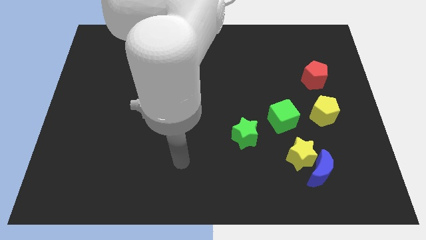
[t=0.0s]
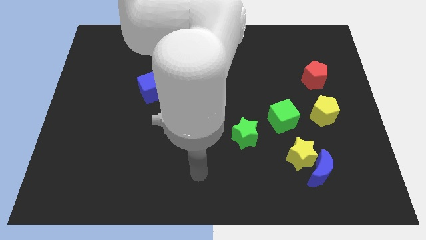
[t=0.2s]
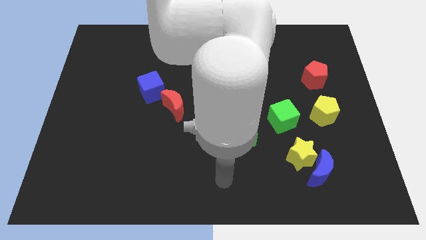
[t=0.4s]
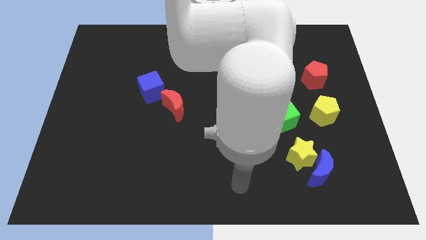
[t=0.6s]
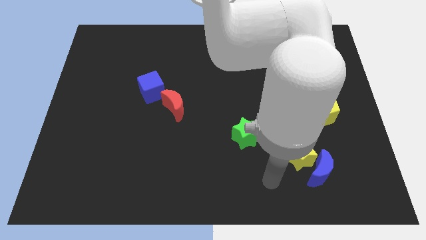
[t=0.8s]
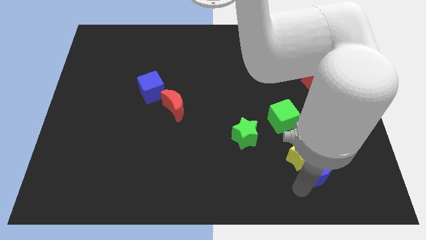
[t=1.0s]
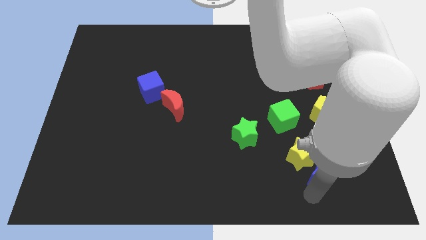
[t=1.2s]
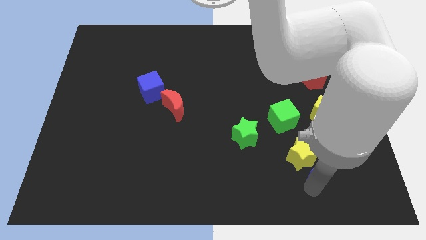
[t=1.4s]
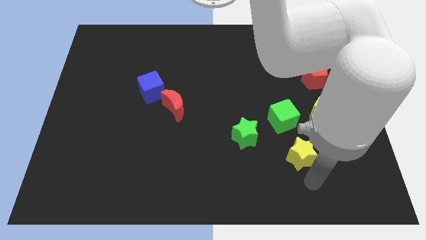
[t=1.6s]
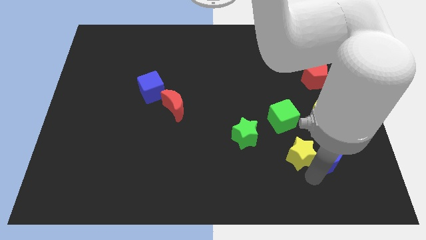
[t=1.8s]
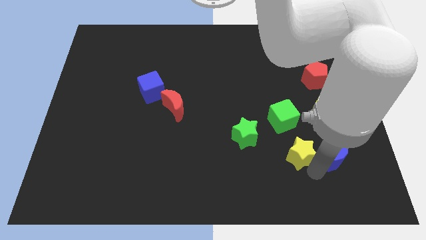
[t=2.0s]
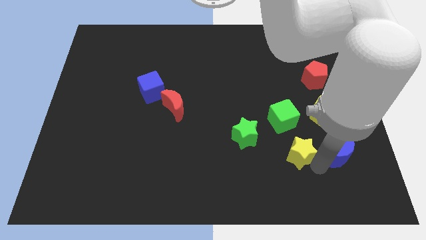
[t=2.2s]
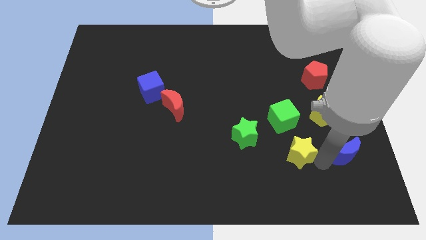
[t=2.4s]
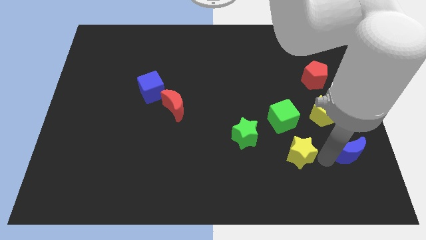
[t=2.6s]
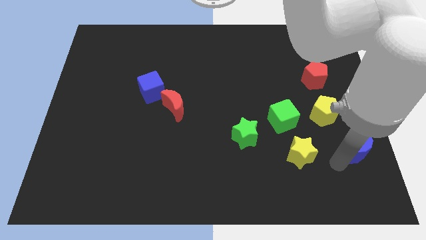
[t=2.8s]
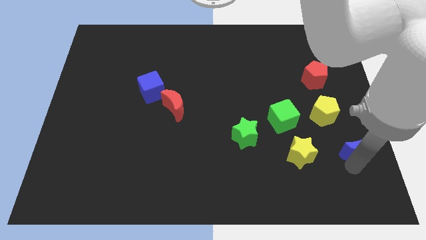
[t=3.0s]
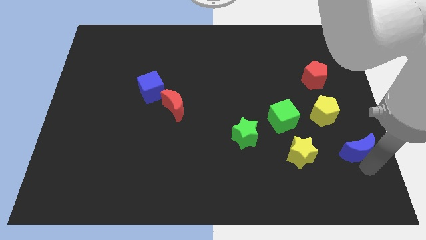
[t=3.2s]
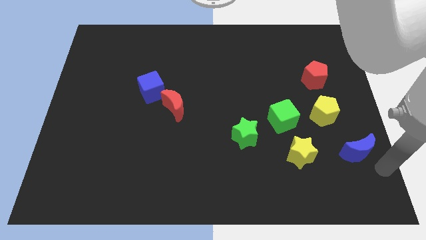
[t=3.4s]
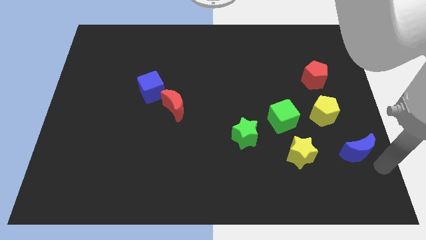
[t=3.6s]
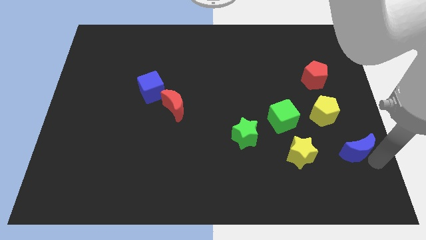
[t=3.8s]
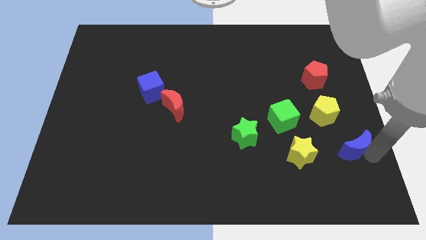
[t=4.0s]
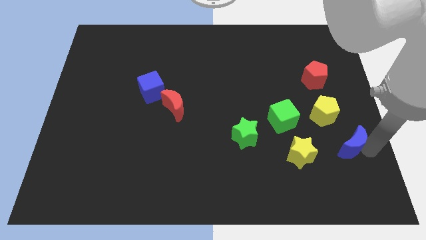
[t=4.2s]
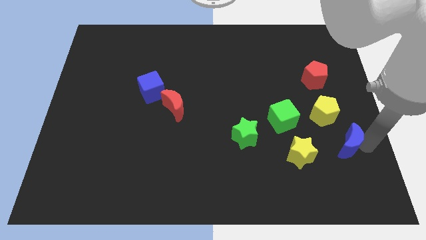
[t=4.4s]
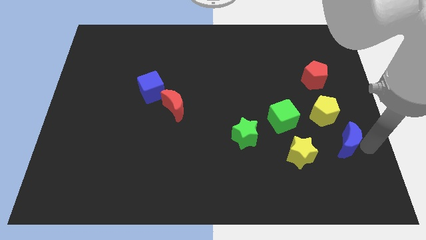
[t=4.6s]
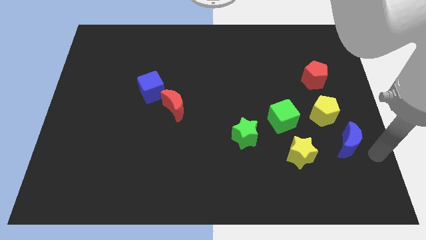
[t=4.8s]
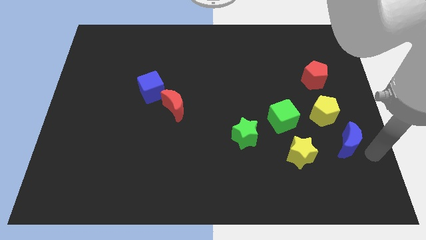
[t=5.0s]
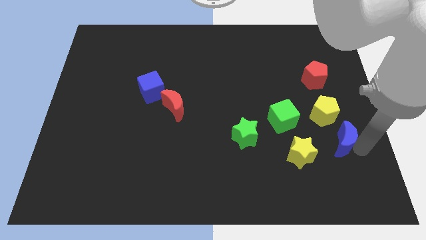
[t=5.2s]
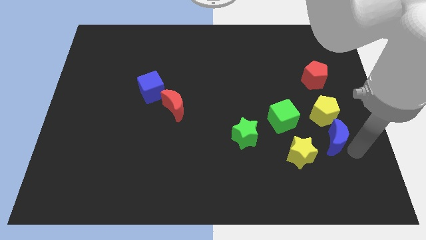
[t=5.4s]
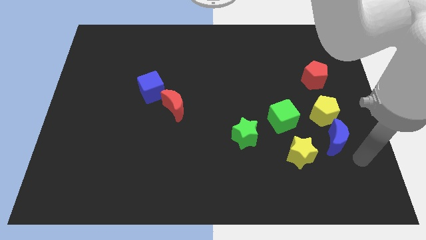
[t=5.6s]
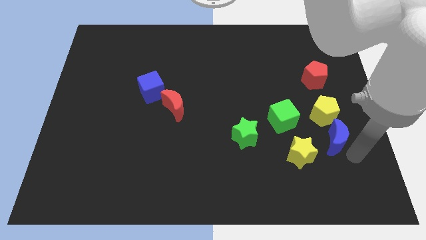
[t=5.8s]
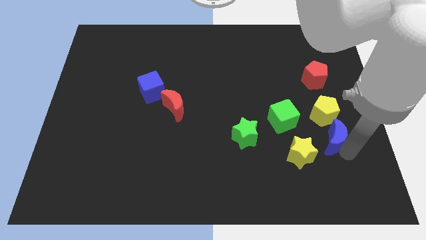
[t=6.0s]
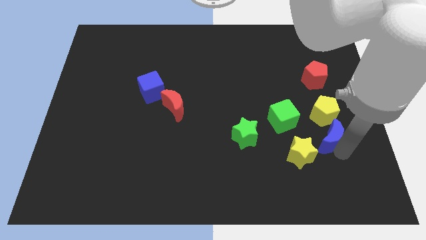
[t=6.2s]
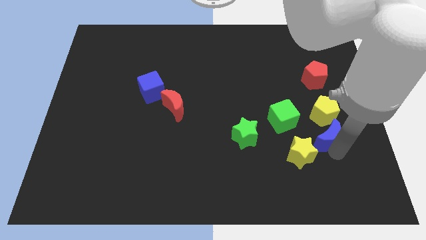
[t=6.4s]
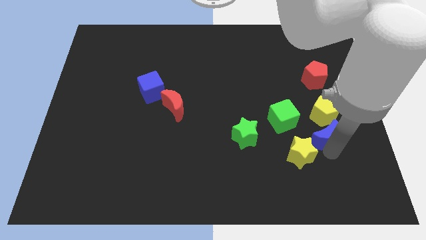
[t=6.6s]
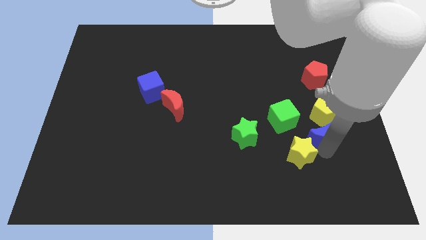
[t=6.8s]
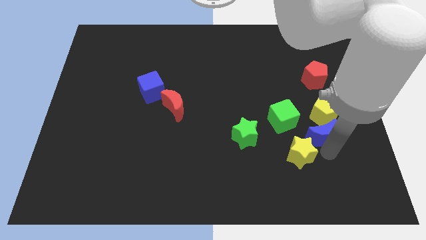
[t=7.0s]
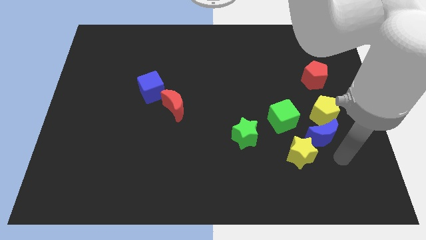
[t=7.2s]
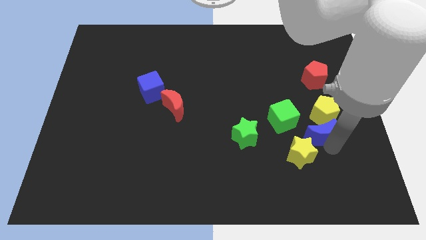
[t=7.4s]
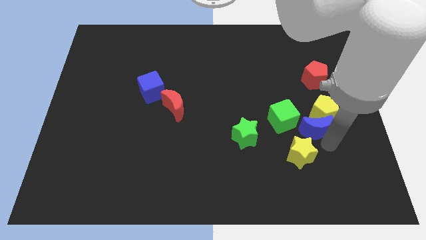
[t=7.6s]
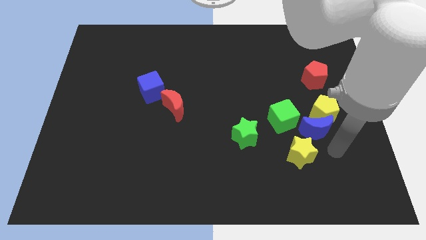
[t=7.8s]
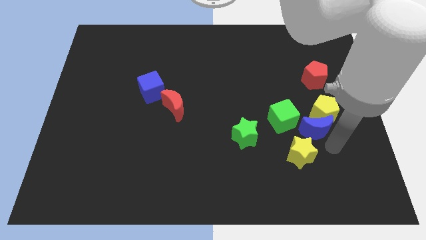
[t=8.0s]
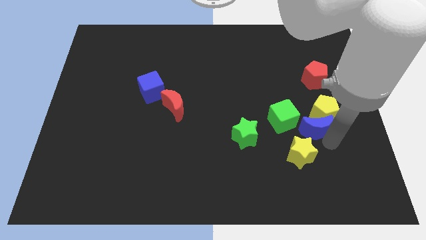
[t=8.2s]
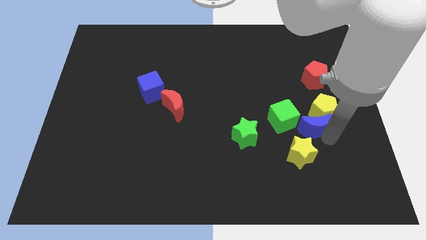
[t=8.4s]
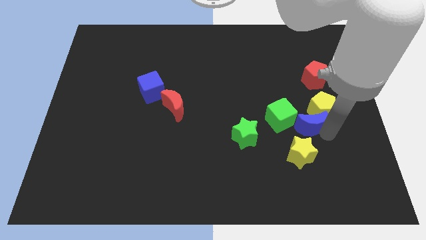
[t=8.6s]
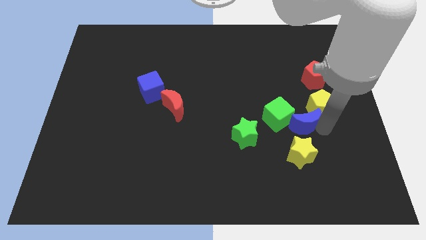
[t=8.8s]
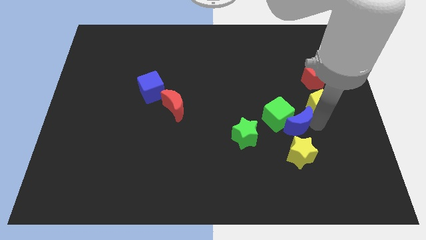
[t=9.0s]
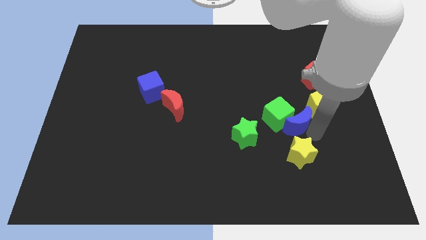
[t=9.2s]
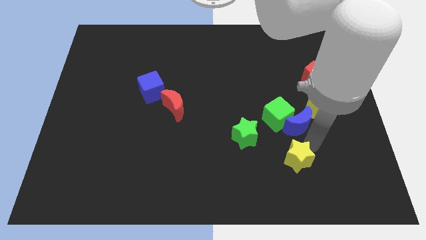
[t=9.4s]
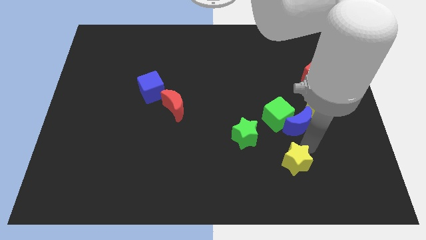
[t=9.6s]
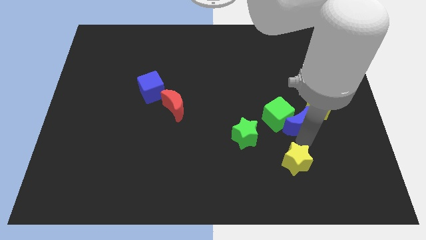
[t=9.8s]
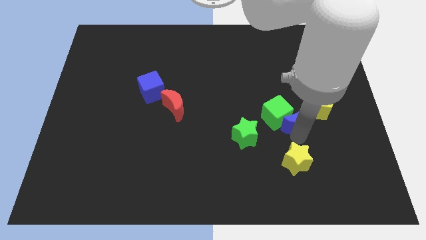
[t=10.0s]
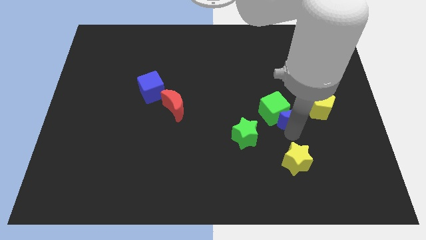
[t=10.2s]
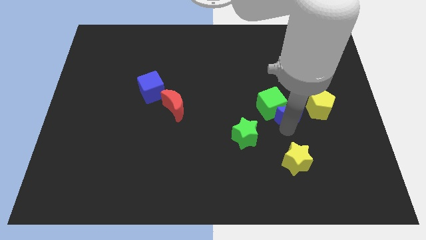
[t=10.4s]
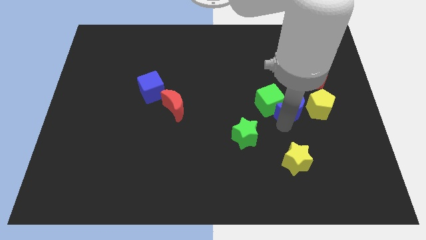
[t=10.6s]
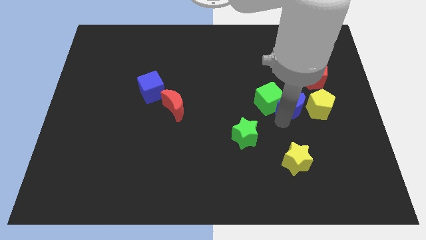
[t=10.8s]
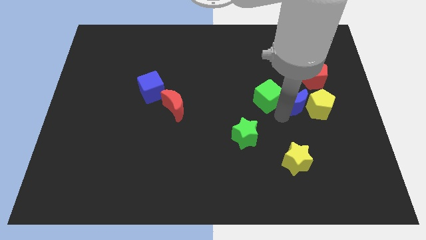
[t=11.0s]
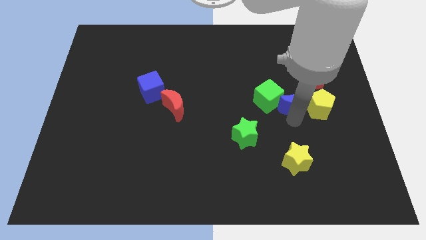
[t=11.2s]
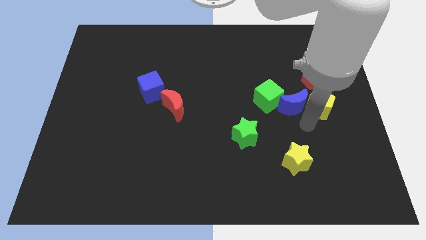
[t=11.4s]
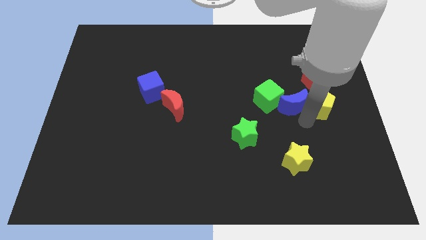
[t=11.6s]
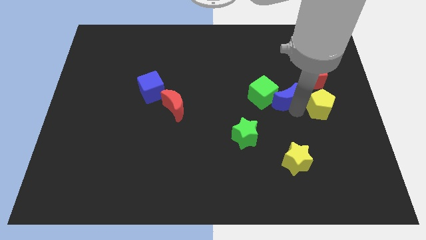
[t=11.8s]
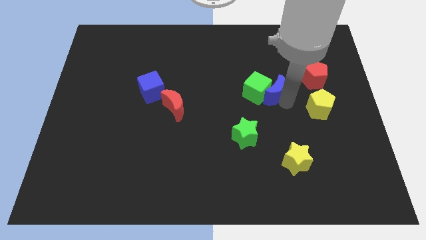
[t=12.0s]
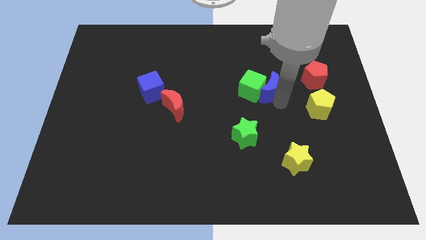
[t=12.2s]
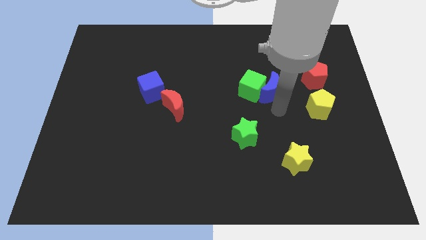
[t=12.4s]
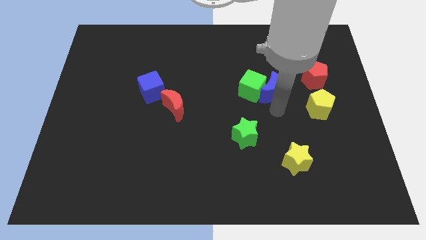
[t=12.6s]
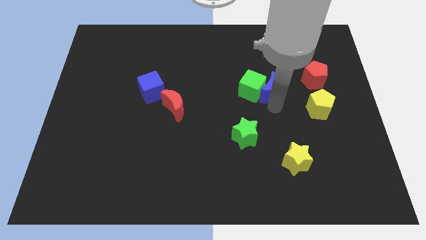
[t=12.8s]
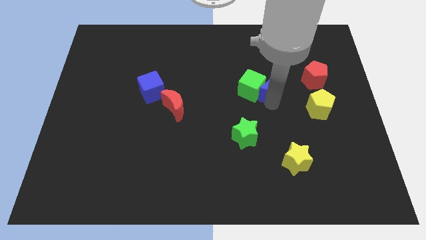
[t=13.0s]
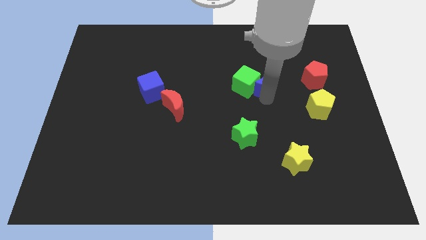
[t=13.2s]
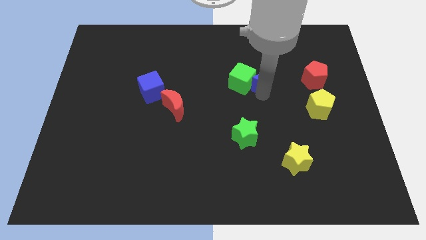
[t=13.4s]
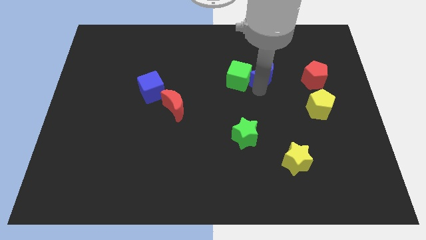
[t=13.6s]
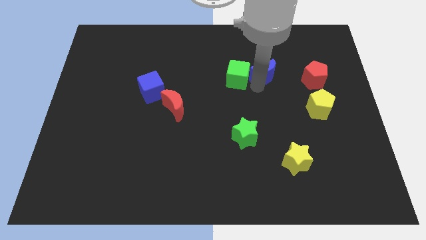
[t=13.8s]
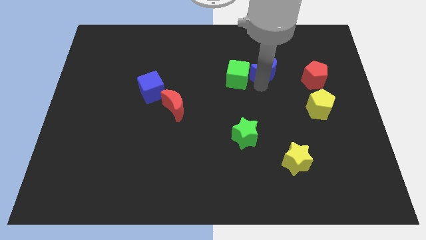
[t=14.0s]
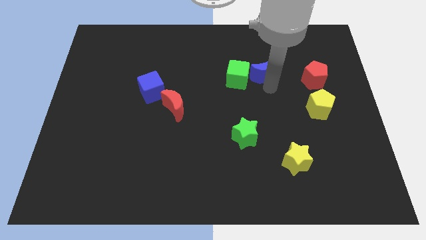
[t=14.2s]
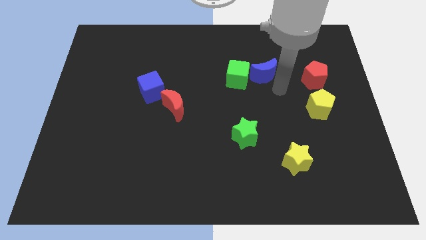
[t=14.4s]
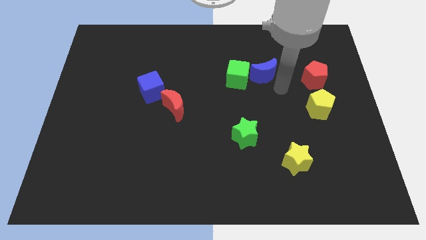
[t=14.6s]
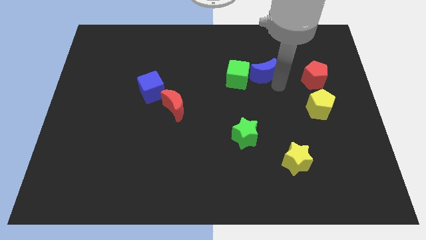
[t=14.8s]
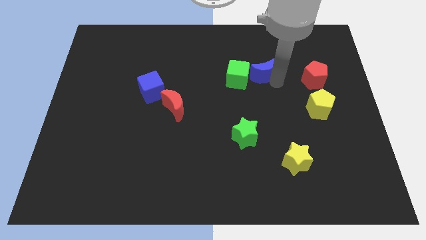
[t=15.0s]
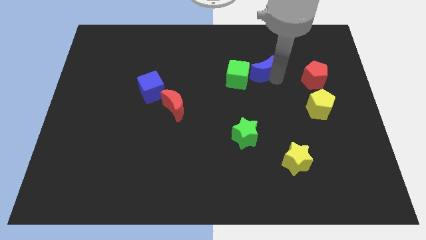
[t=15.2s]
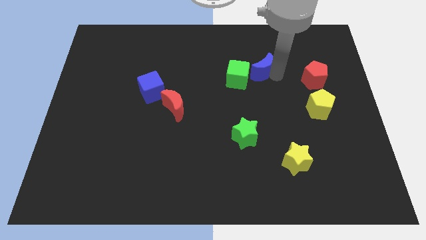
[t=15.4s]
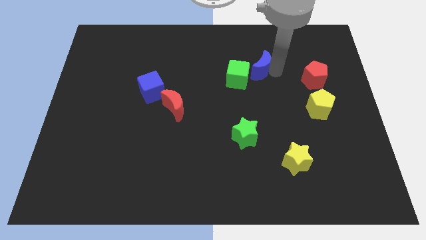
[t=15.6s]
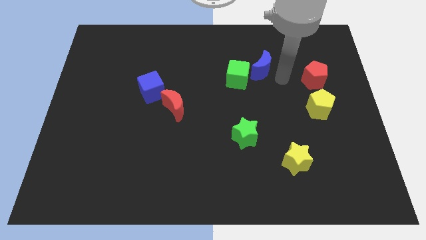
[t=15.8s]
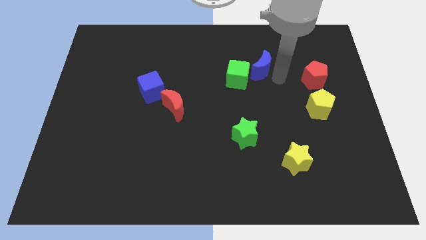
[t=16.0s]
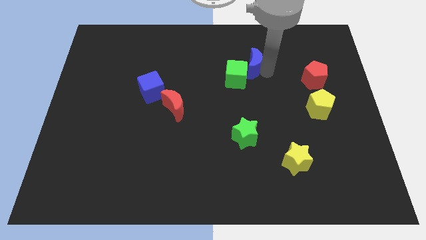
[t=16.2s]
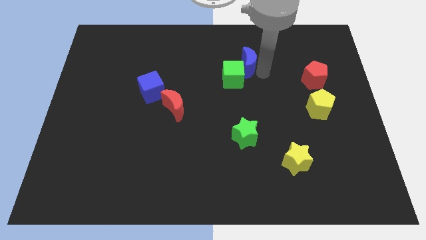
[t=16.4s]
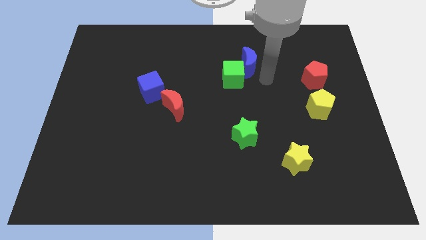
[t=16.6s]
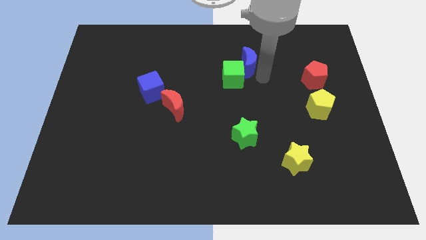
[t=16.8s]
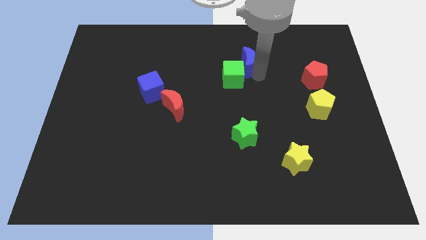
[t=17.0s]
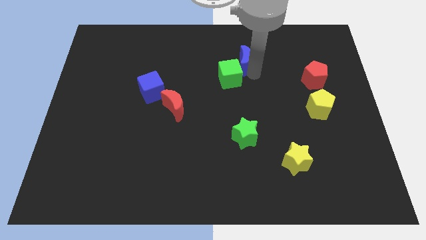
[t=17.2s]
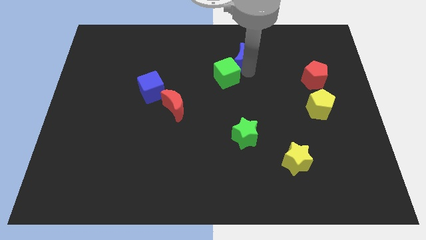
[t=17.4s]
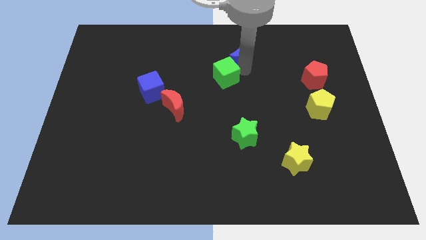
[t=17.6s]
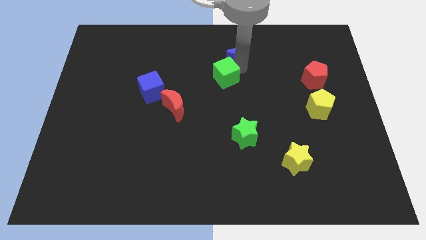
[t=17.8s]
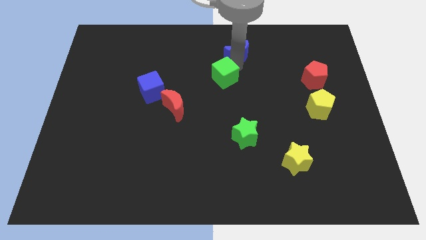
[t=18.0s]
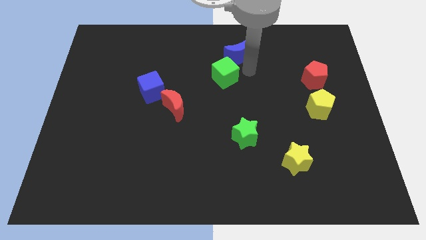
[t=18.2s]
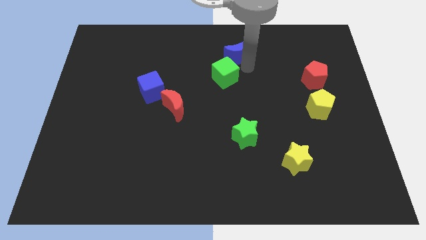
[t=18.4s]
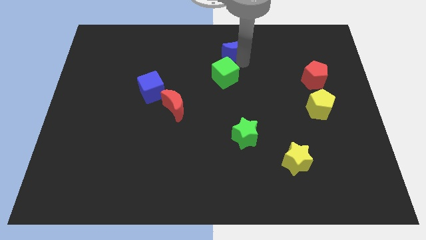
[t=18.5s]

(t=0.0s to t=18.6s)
move the blue moon to the towards your base
